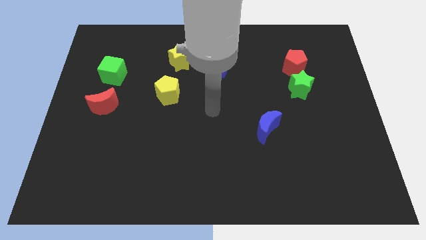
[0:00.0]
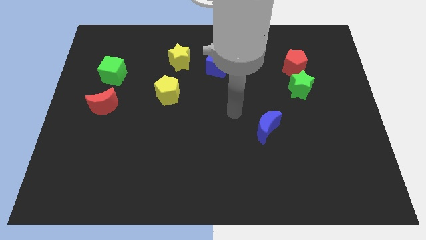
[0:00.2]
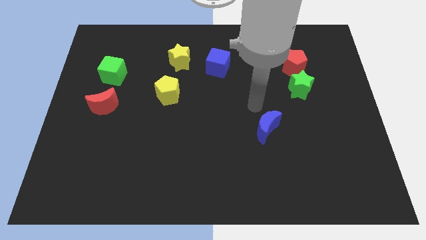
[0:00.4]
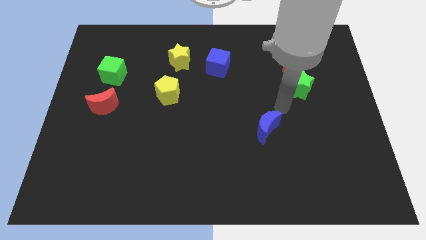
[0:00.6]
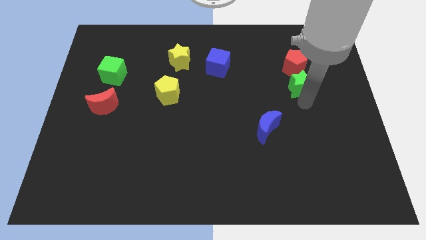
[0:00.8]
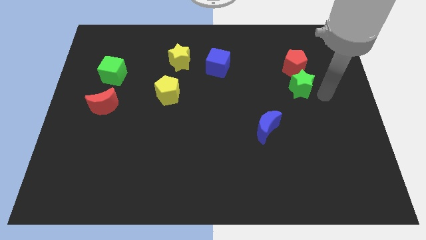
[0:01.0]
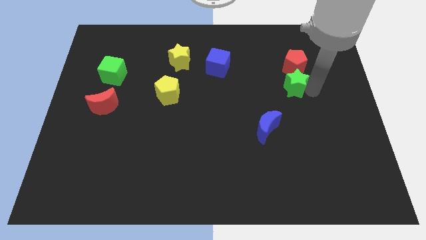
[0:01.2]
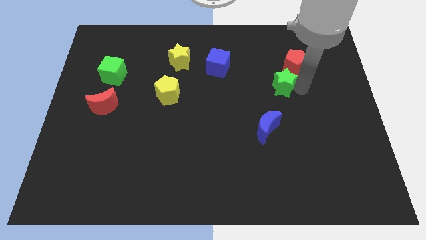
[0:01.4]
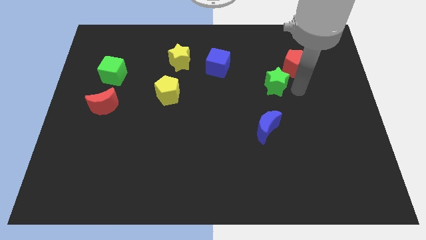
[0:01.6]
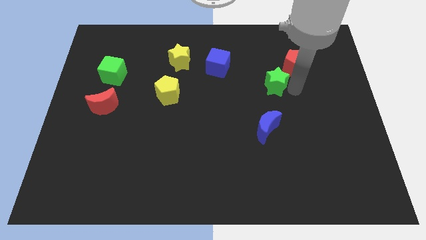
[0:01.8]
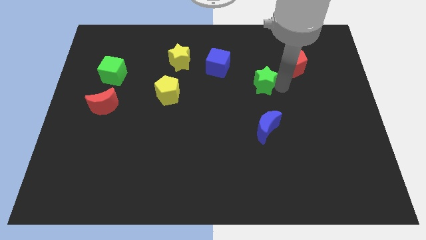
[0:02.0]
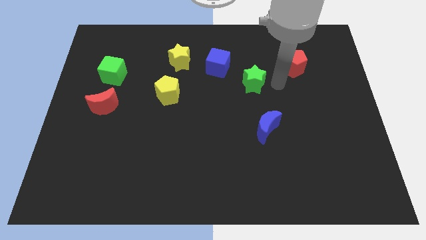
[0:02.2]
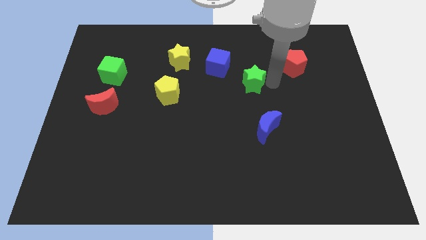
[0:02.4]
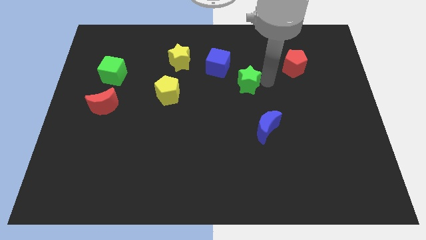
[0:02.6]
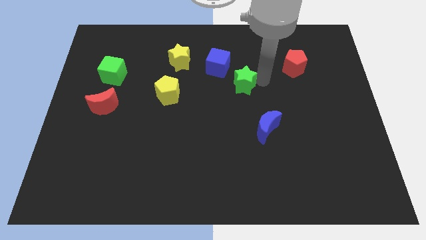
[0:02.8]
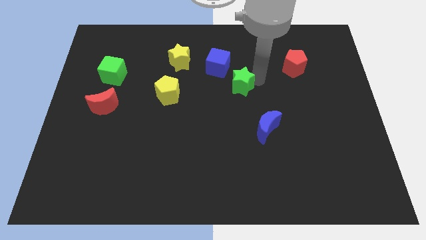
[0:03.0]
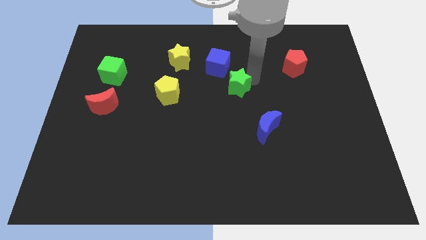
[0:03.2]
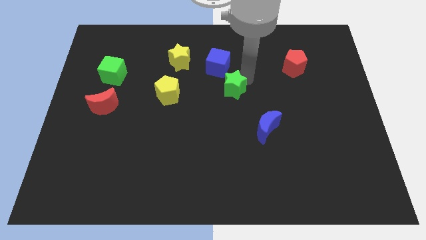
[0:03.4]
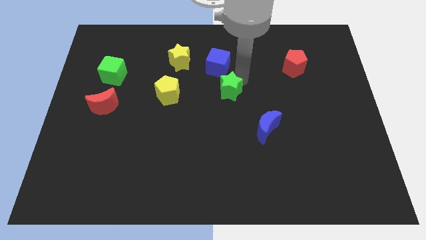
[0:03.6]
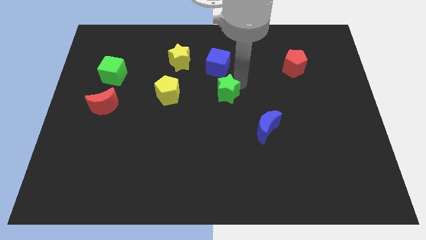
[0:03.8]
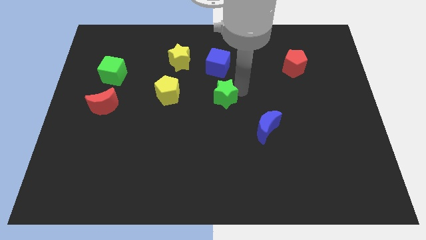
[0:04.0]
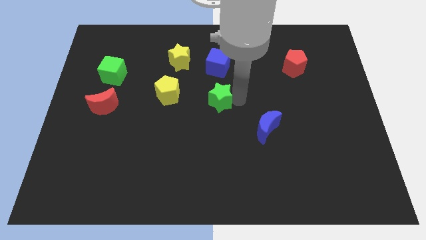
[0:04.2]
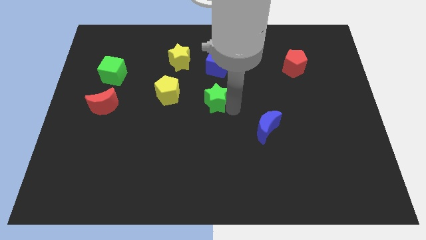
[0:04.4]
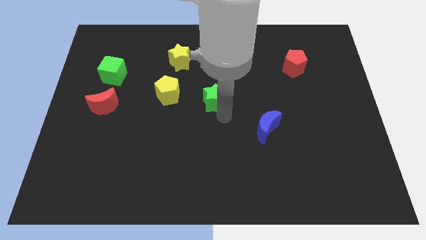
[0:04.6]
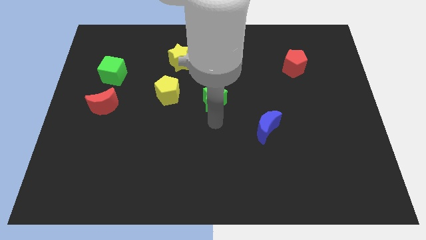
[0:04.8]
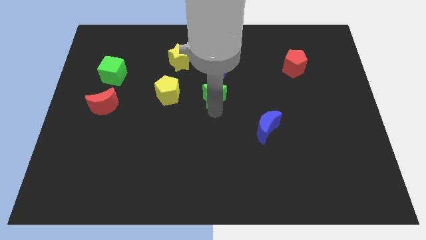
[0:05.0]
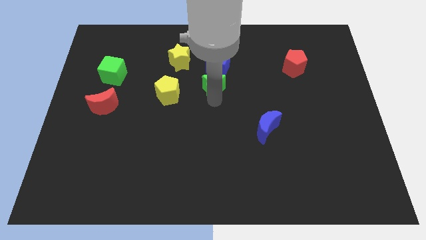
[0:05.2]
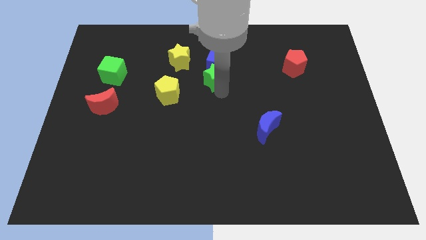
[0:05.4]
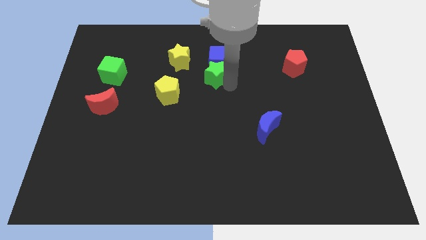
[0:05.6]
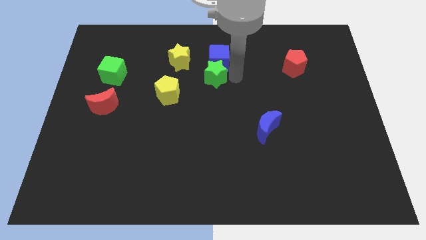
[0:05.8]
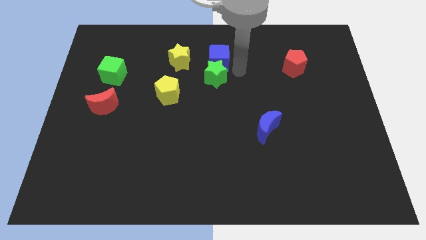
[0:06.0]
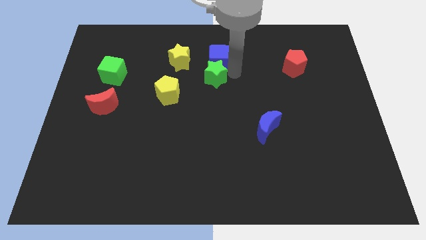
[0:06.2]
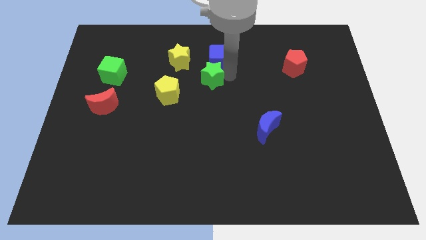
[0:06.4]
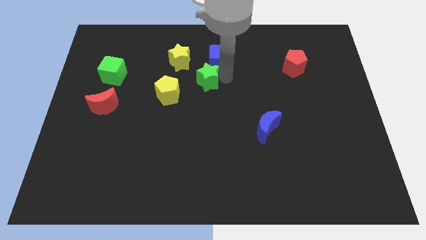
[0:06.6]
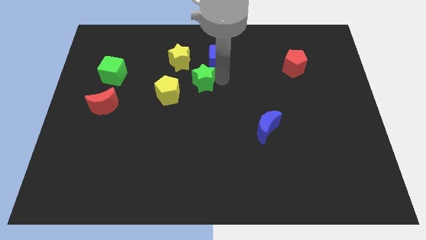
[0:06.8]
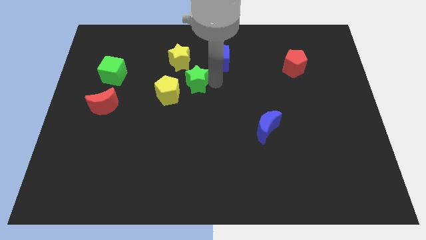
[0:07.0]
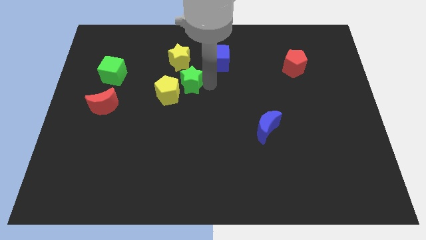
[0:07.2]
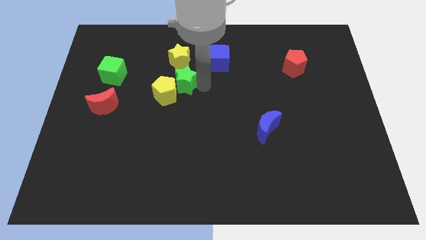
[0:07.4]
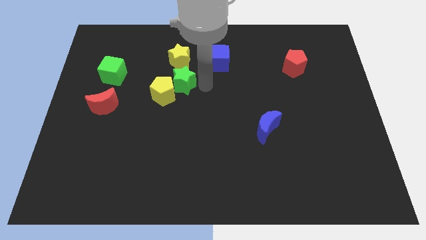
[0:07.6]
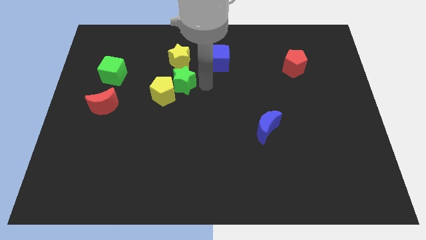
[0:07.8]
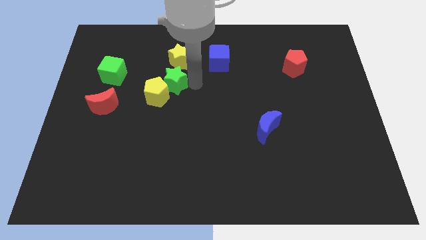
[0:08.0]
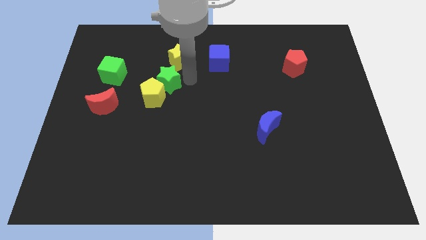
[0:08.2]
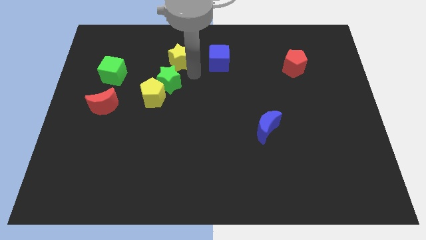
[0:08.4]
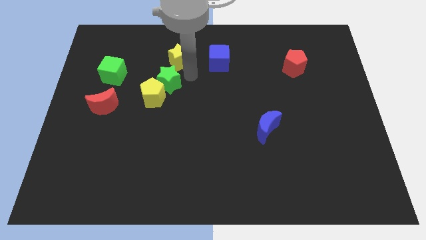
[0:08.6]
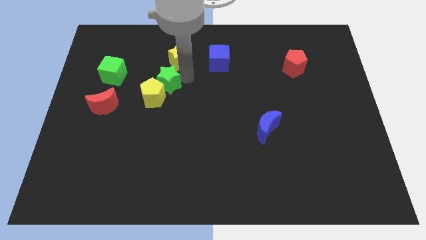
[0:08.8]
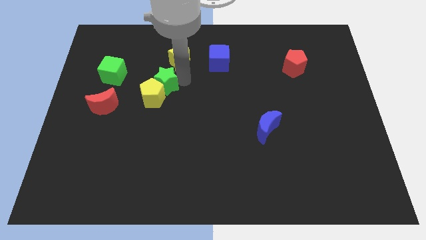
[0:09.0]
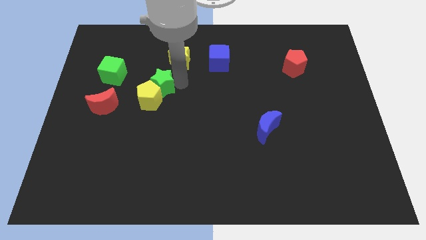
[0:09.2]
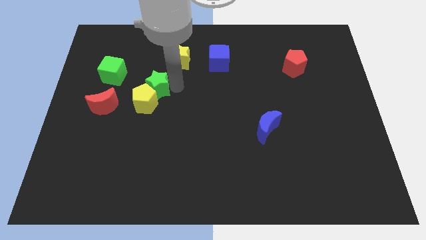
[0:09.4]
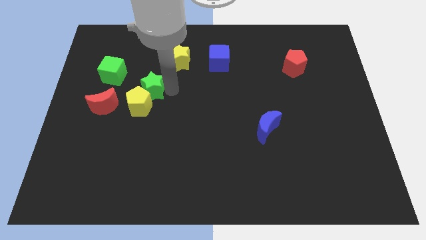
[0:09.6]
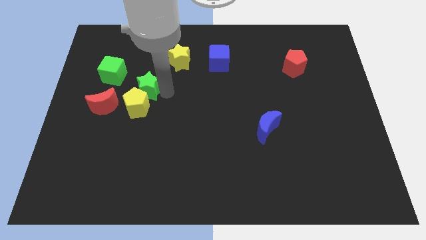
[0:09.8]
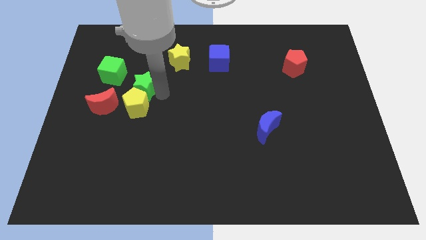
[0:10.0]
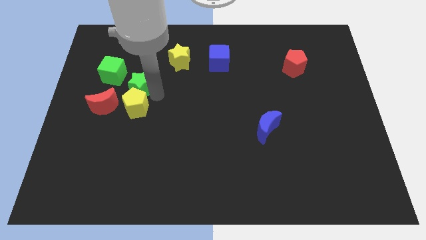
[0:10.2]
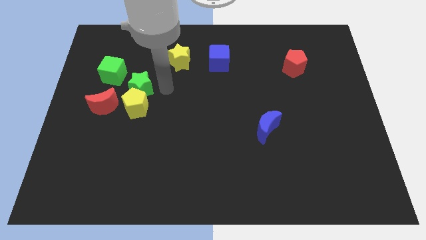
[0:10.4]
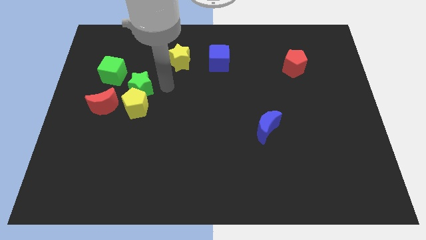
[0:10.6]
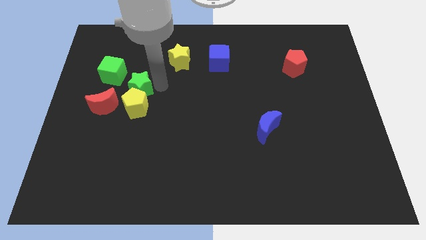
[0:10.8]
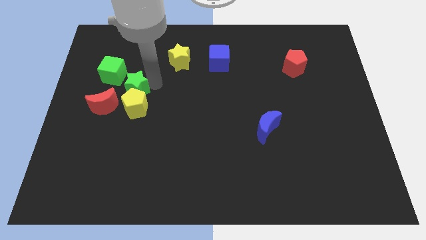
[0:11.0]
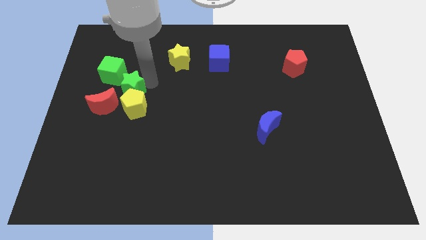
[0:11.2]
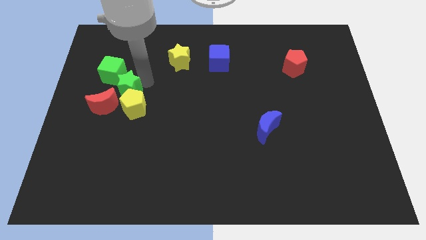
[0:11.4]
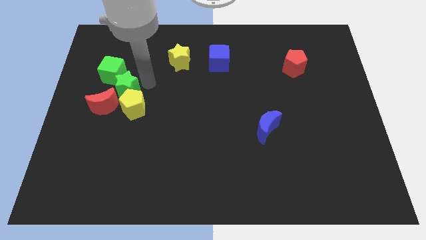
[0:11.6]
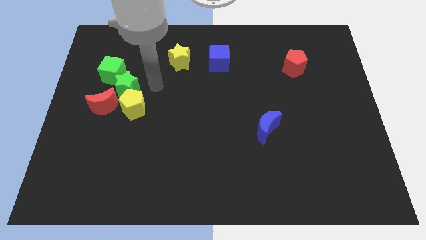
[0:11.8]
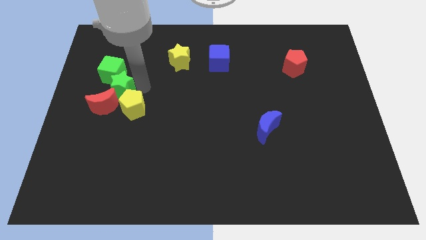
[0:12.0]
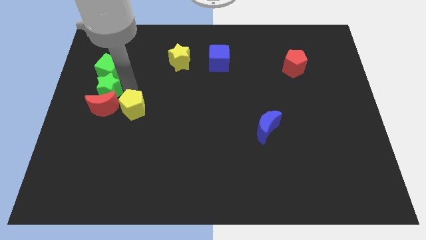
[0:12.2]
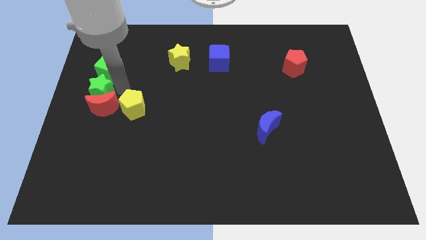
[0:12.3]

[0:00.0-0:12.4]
slide the green star to the left side
